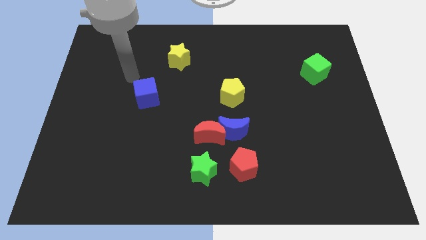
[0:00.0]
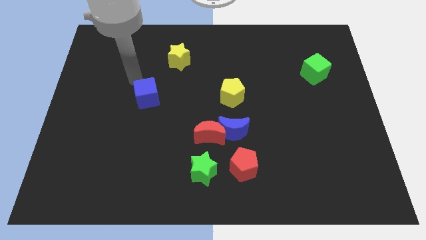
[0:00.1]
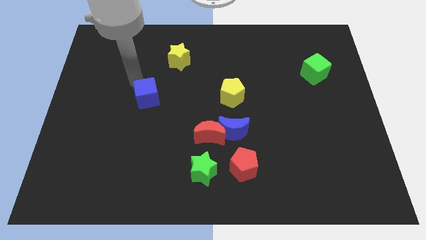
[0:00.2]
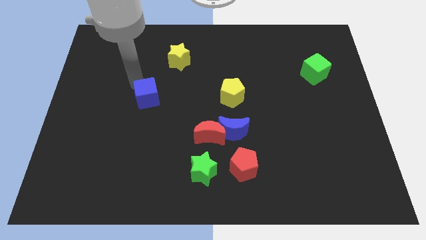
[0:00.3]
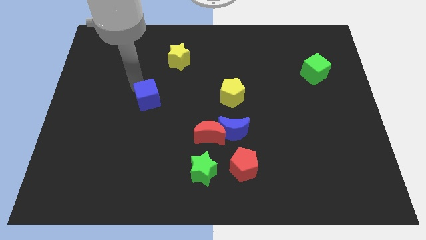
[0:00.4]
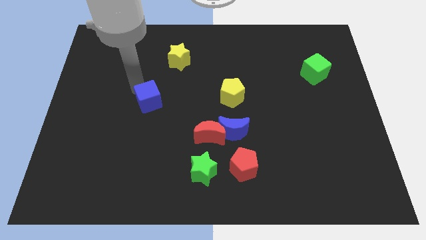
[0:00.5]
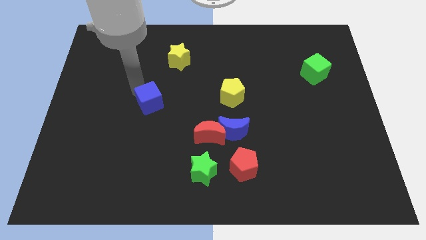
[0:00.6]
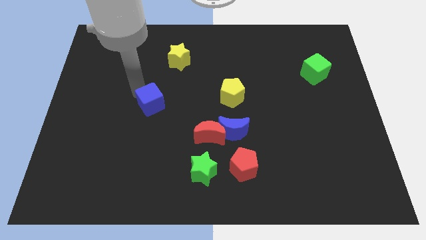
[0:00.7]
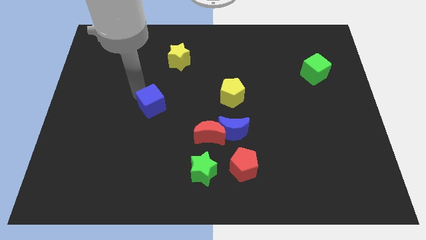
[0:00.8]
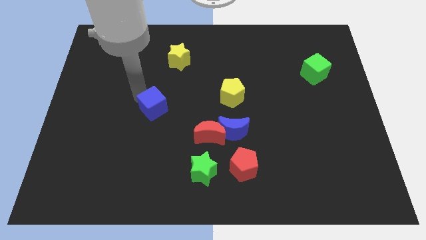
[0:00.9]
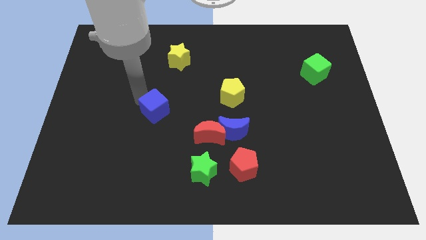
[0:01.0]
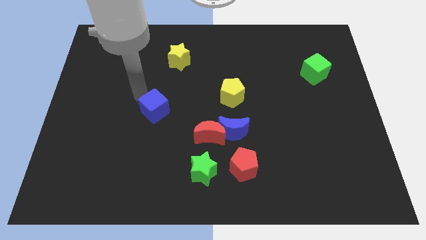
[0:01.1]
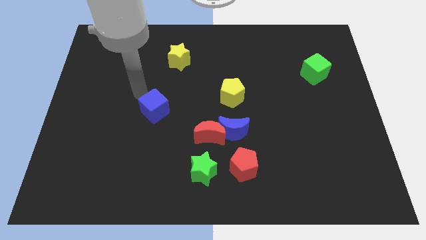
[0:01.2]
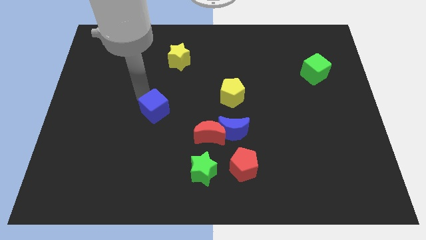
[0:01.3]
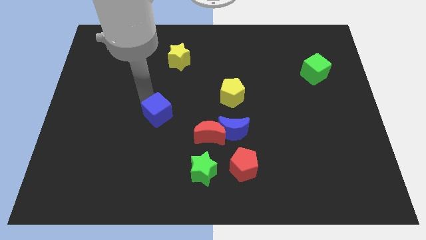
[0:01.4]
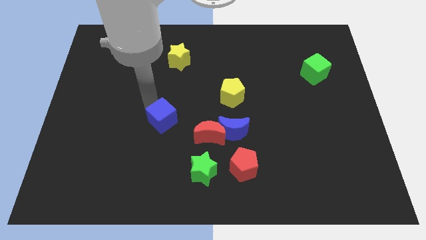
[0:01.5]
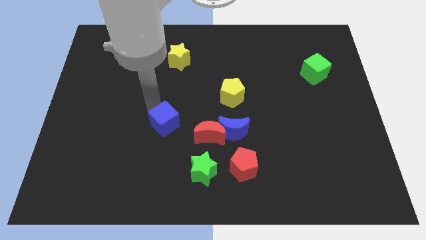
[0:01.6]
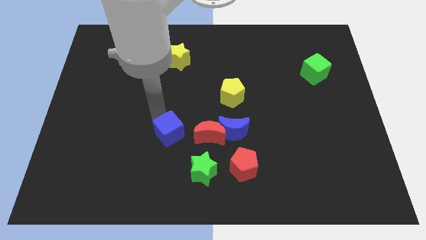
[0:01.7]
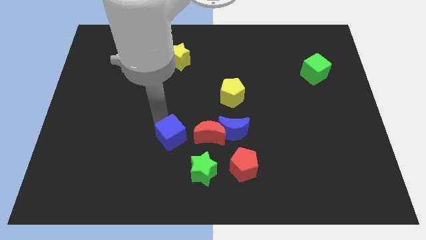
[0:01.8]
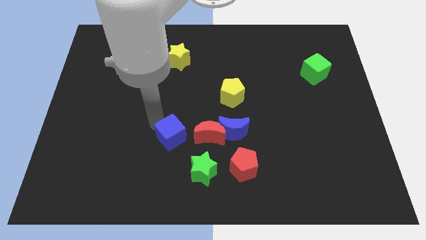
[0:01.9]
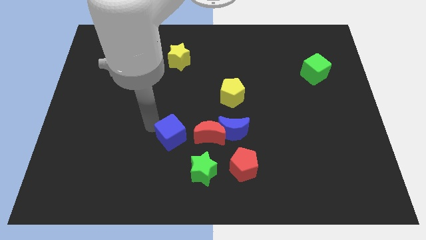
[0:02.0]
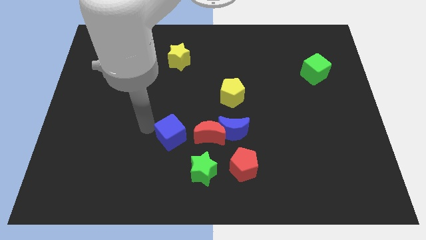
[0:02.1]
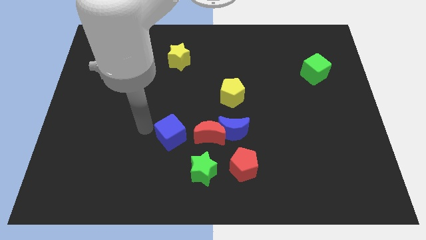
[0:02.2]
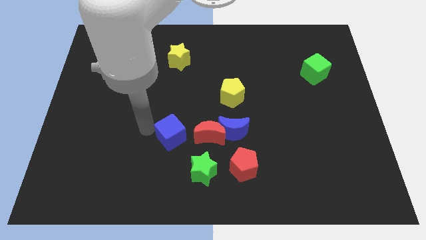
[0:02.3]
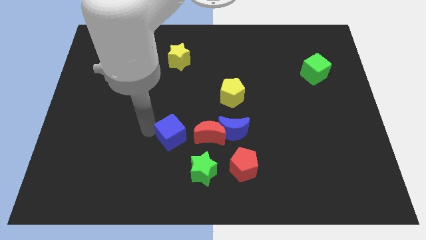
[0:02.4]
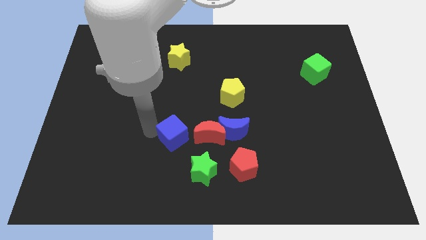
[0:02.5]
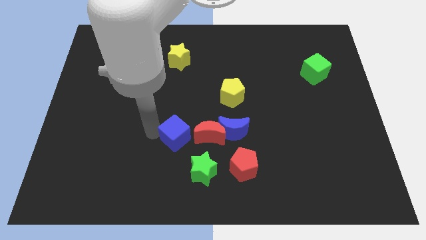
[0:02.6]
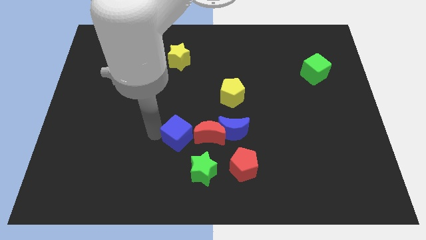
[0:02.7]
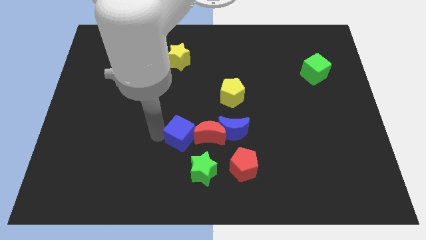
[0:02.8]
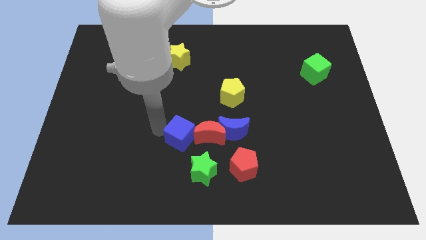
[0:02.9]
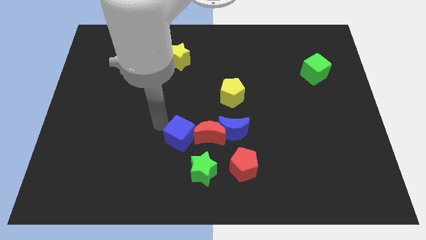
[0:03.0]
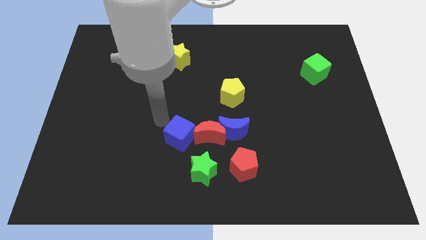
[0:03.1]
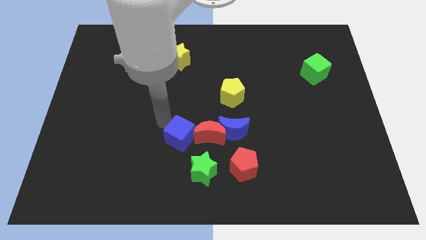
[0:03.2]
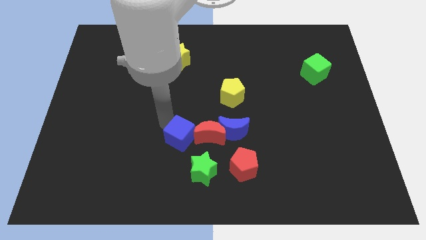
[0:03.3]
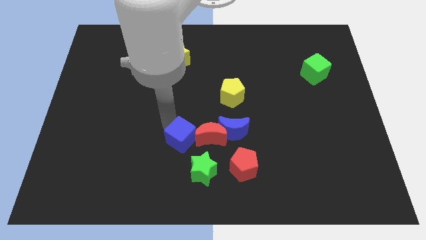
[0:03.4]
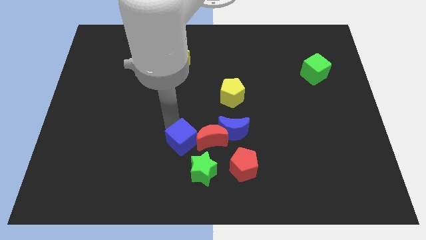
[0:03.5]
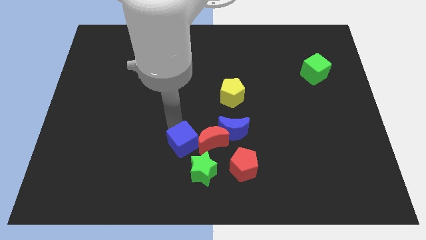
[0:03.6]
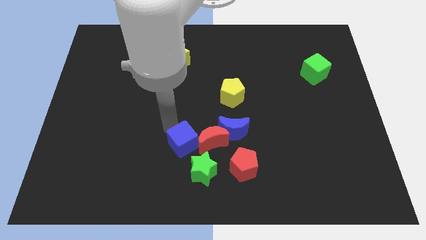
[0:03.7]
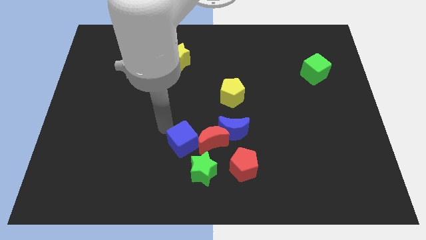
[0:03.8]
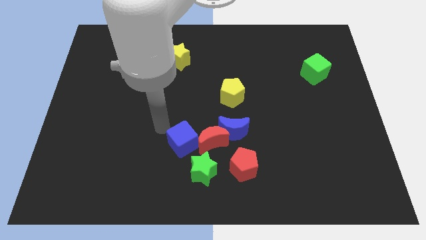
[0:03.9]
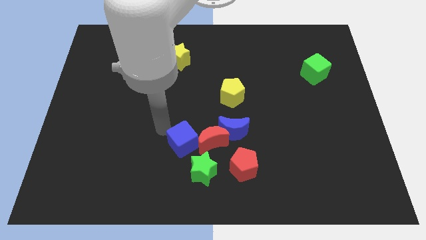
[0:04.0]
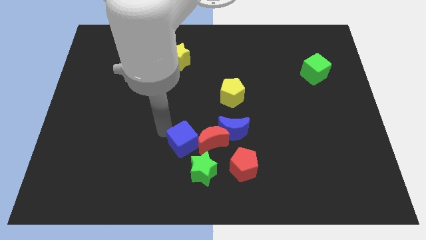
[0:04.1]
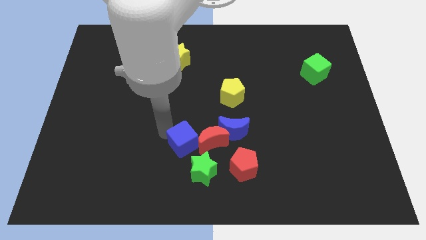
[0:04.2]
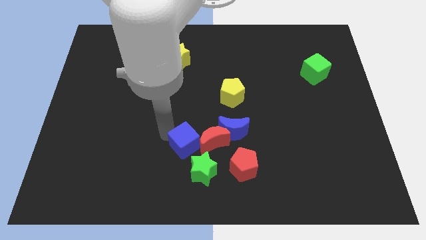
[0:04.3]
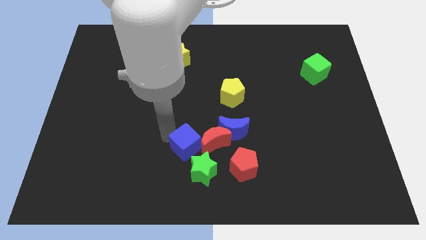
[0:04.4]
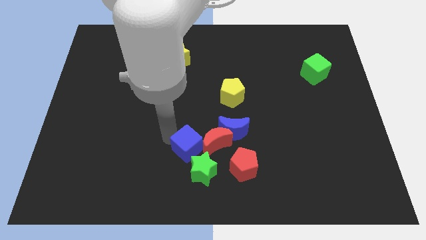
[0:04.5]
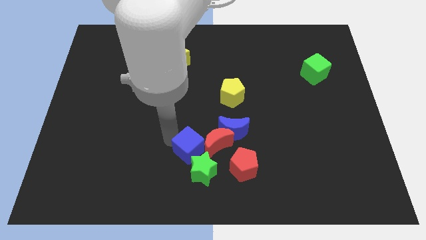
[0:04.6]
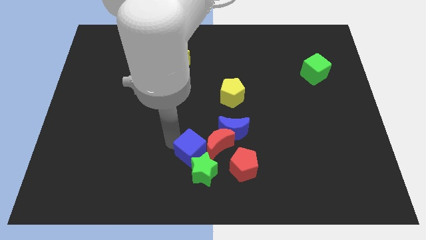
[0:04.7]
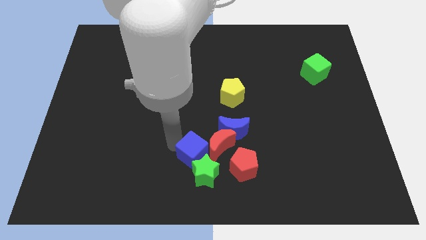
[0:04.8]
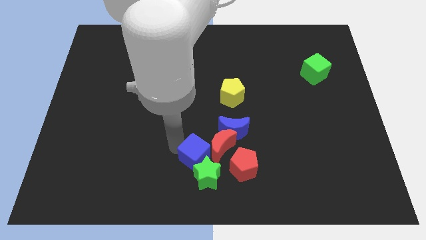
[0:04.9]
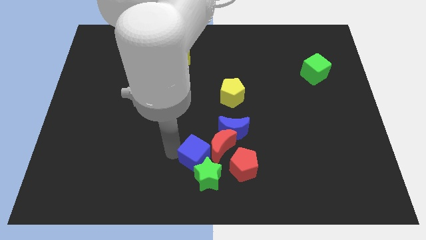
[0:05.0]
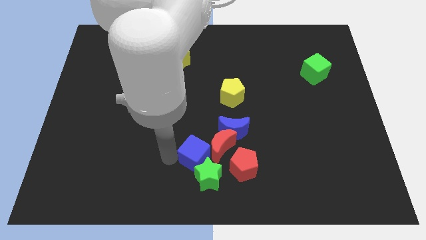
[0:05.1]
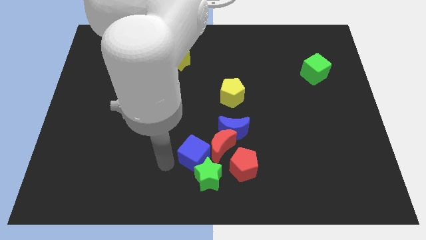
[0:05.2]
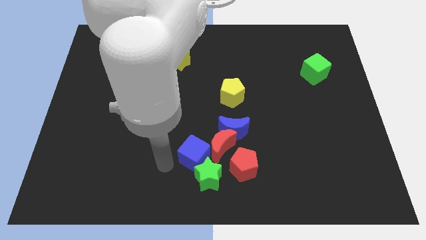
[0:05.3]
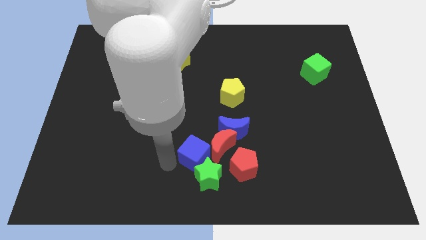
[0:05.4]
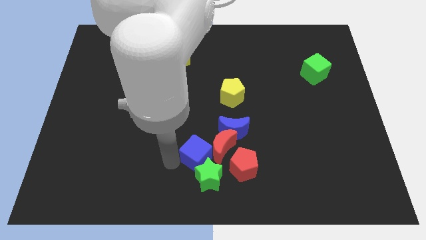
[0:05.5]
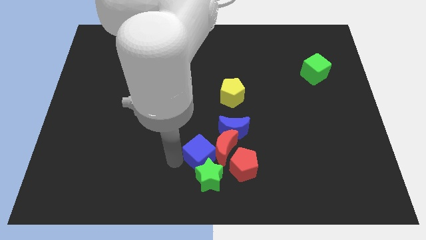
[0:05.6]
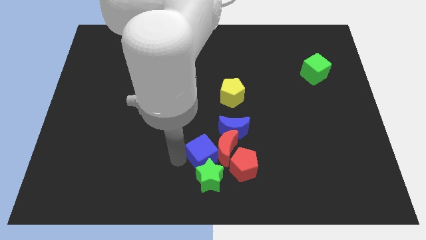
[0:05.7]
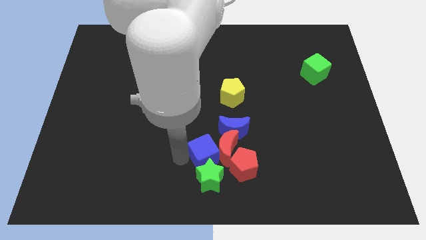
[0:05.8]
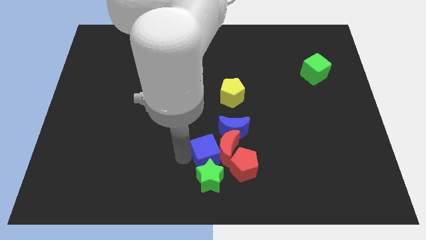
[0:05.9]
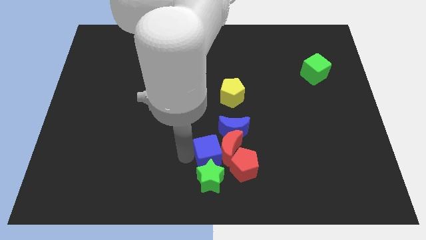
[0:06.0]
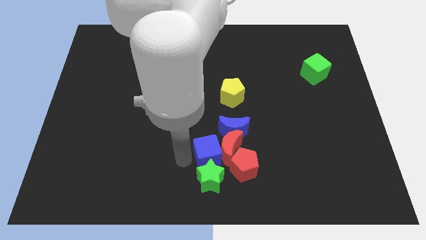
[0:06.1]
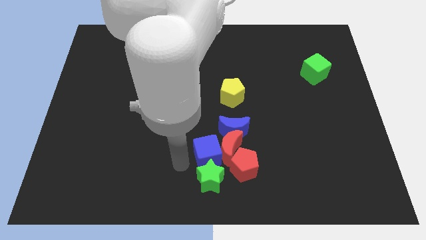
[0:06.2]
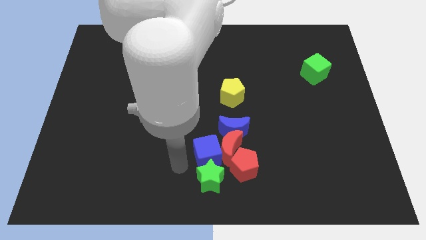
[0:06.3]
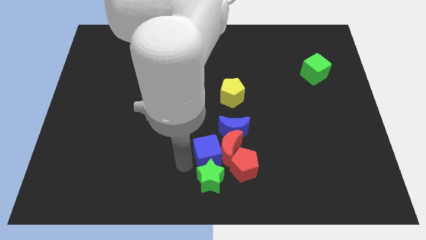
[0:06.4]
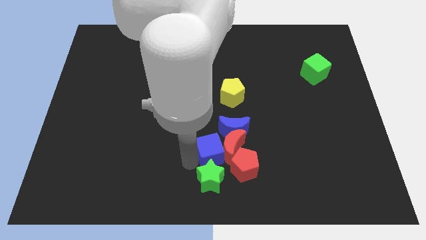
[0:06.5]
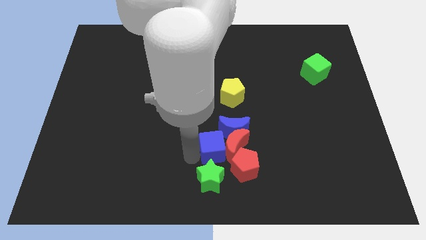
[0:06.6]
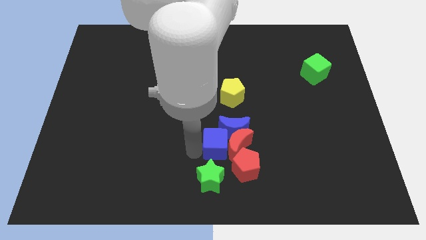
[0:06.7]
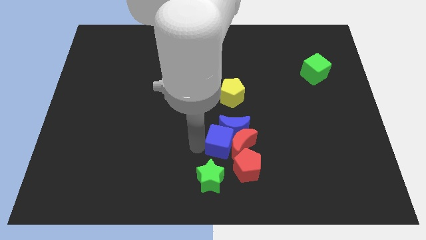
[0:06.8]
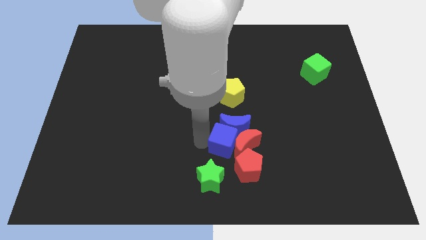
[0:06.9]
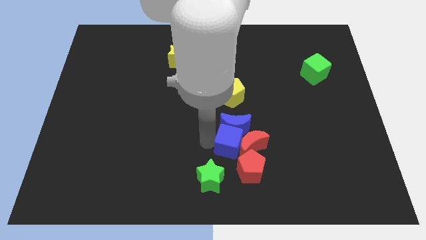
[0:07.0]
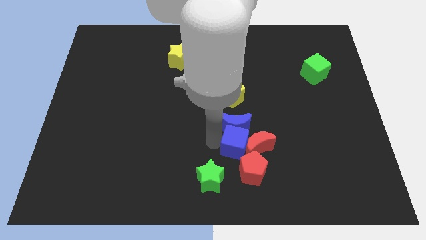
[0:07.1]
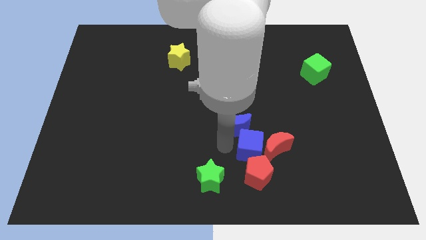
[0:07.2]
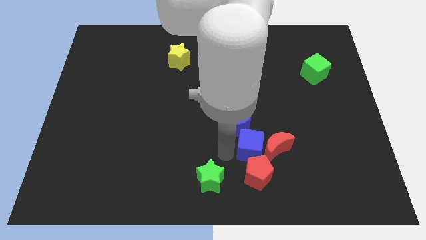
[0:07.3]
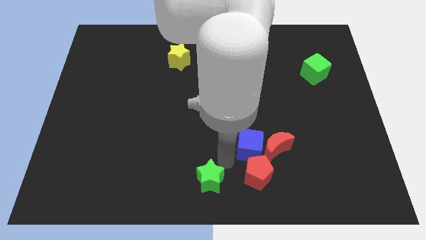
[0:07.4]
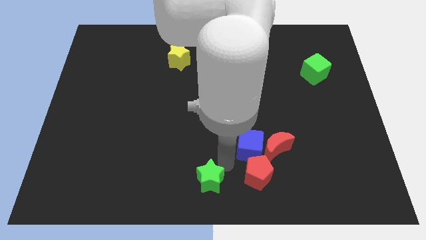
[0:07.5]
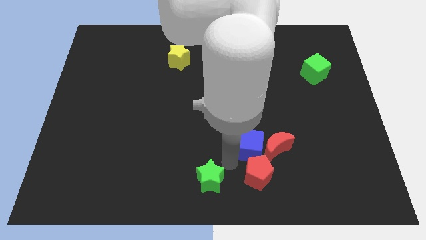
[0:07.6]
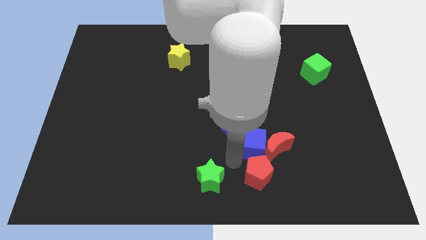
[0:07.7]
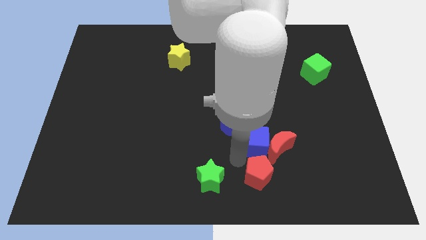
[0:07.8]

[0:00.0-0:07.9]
move the blue cube to the right side of the blue moon
